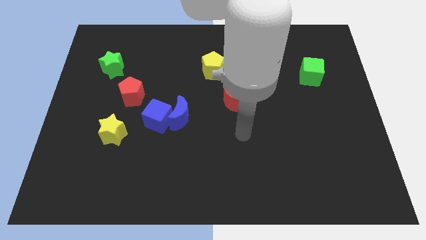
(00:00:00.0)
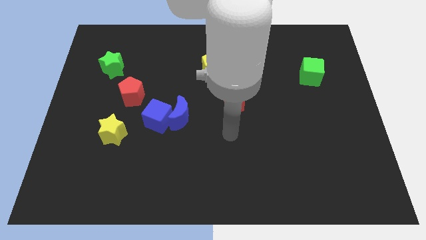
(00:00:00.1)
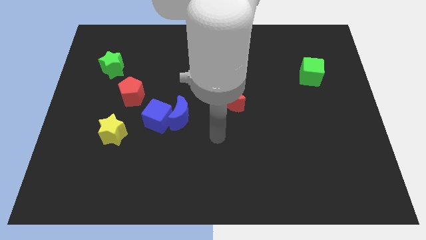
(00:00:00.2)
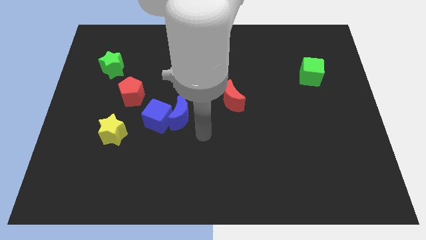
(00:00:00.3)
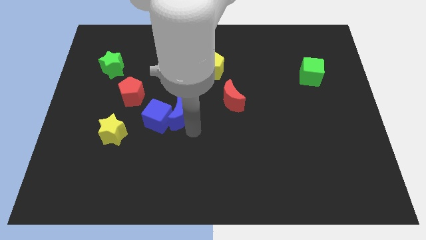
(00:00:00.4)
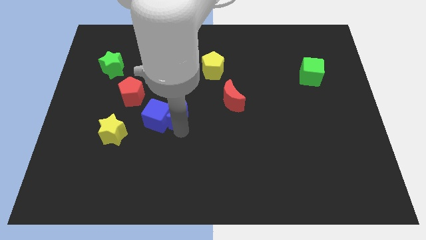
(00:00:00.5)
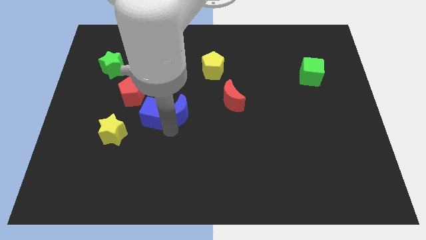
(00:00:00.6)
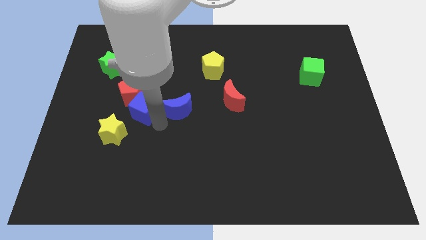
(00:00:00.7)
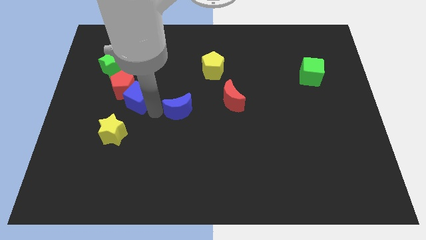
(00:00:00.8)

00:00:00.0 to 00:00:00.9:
separate the blue moon from the blue cube

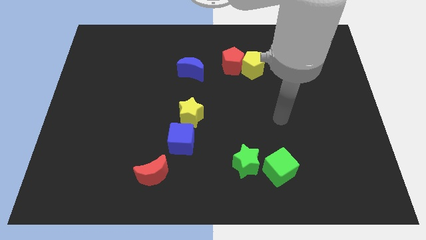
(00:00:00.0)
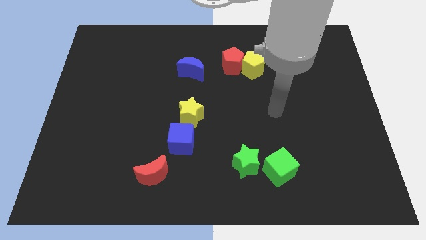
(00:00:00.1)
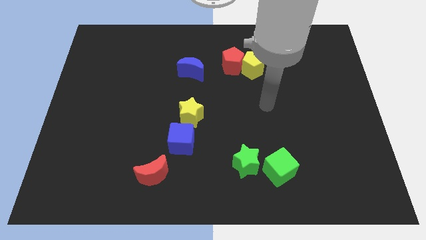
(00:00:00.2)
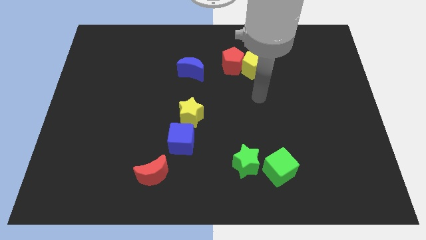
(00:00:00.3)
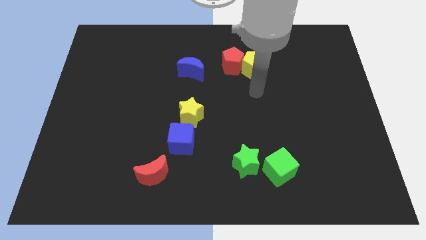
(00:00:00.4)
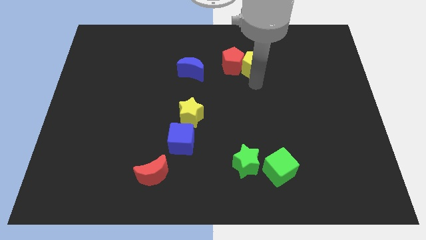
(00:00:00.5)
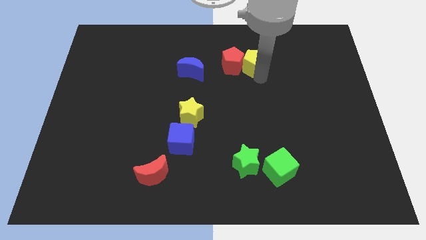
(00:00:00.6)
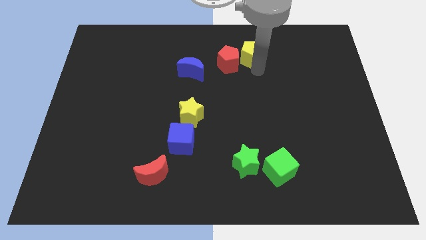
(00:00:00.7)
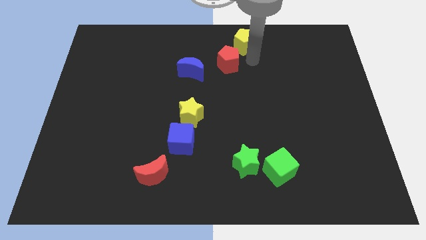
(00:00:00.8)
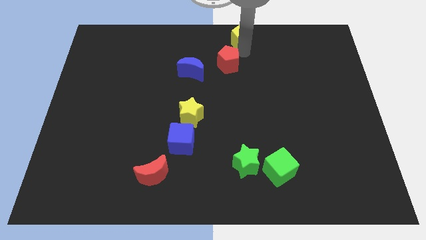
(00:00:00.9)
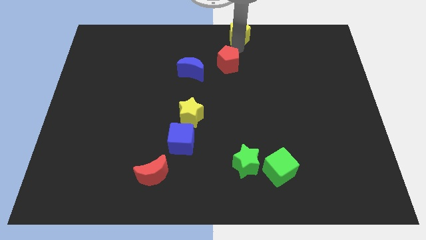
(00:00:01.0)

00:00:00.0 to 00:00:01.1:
separate the red pentagon from the yellow pentagon

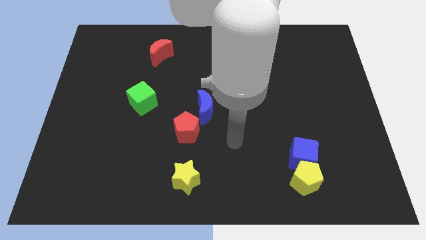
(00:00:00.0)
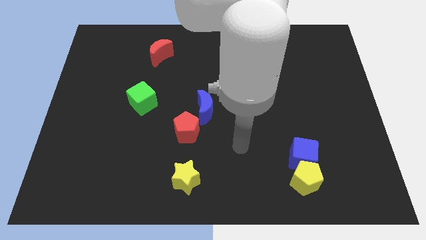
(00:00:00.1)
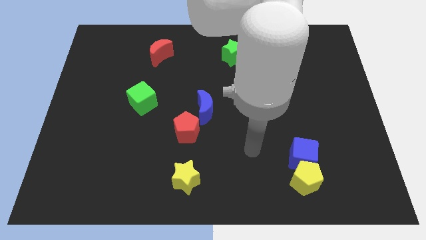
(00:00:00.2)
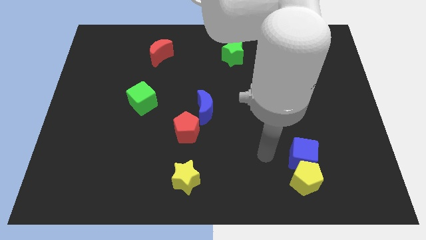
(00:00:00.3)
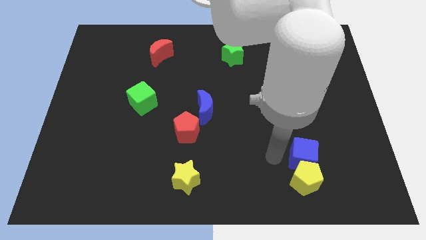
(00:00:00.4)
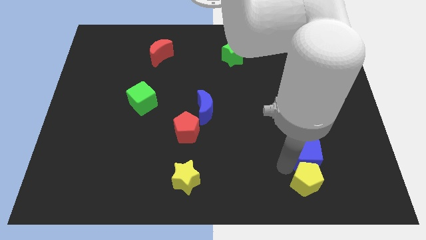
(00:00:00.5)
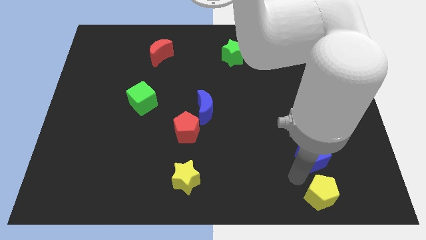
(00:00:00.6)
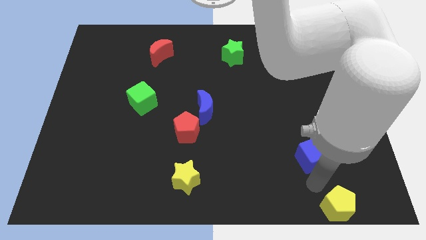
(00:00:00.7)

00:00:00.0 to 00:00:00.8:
move the blue cube away from the yellow pentagon

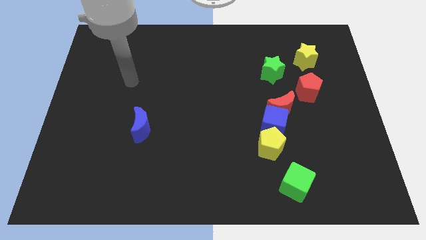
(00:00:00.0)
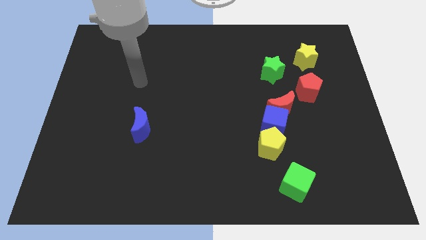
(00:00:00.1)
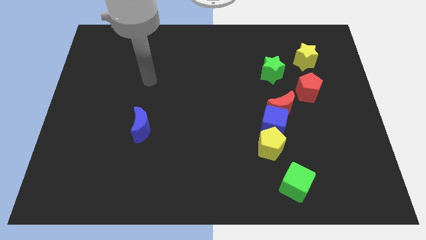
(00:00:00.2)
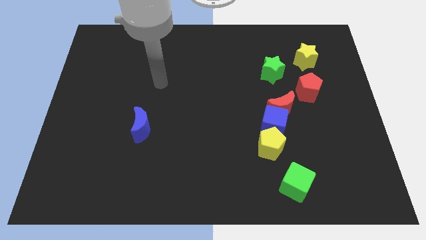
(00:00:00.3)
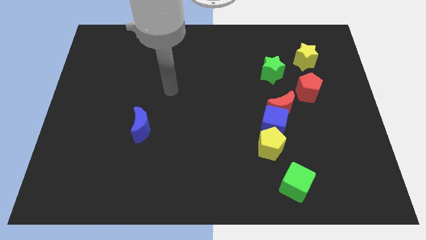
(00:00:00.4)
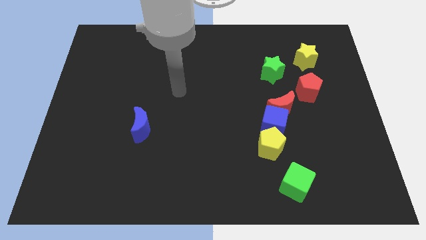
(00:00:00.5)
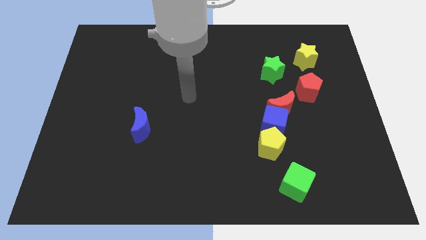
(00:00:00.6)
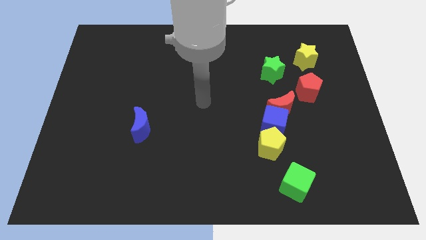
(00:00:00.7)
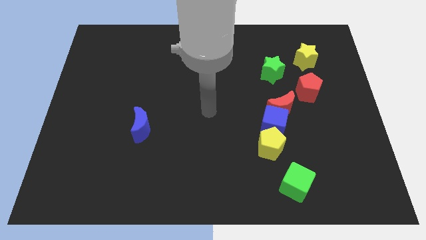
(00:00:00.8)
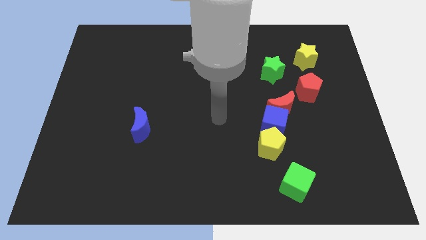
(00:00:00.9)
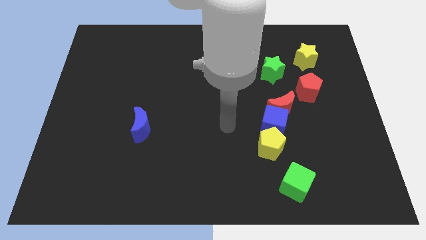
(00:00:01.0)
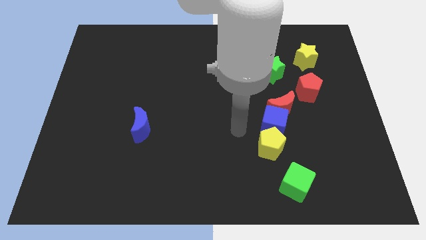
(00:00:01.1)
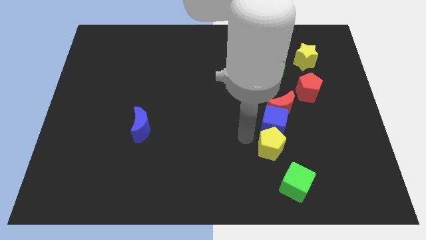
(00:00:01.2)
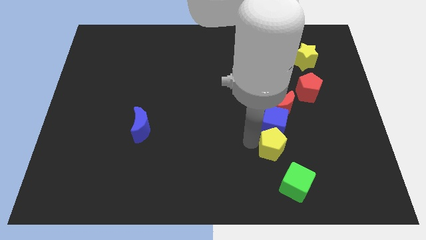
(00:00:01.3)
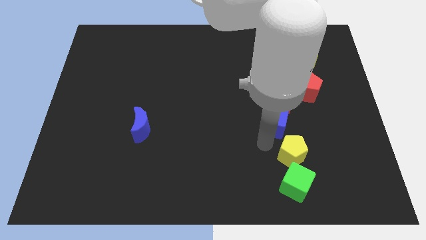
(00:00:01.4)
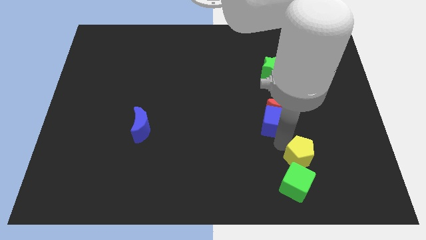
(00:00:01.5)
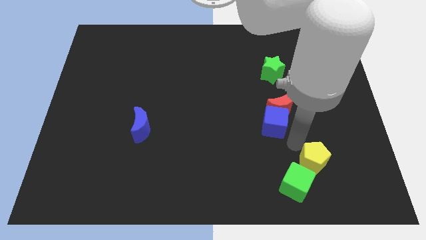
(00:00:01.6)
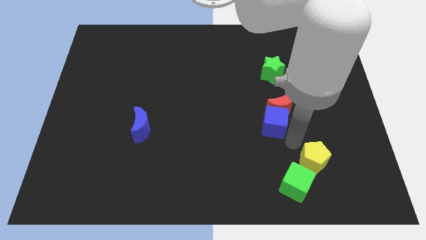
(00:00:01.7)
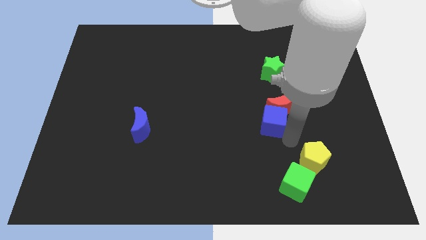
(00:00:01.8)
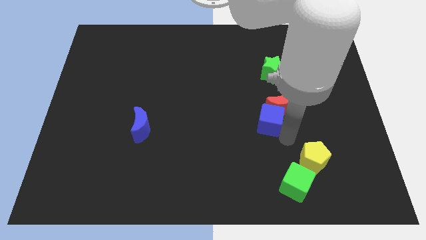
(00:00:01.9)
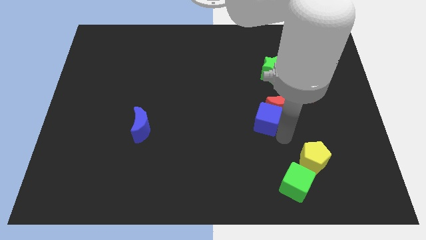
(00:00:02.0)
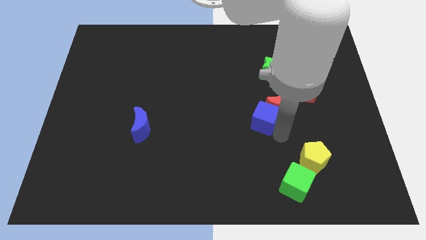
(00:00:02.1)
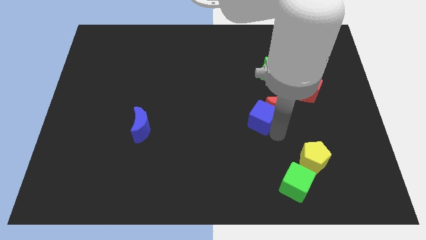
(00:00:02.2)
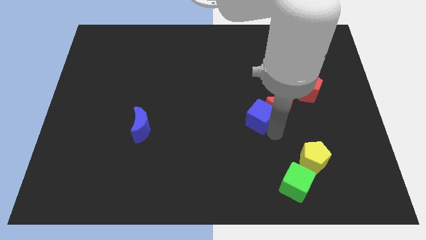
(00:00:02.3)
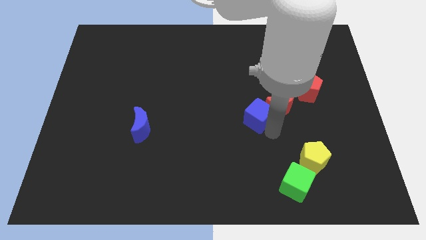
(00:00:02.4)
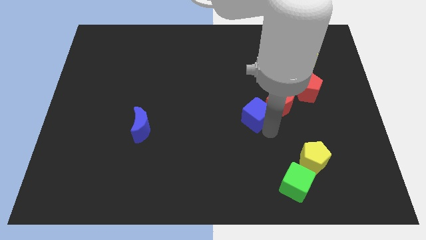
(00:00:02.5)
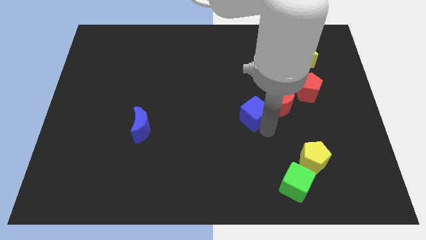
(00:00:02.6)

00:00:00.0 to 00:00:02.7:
move the blue cube away from the red moon and yellow pentagon

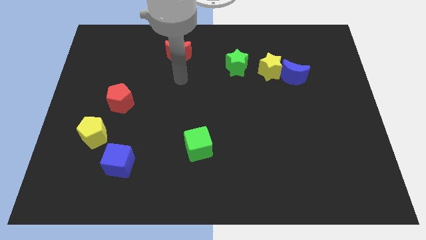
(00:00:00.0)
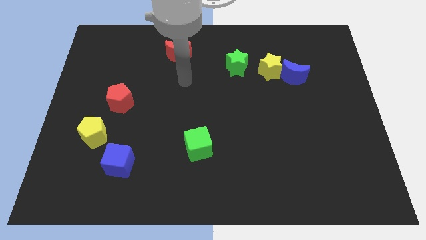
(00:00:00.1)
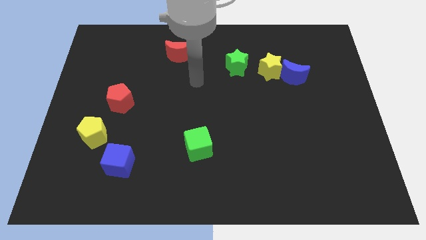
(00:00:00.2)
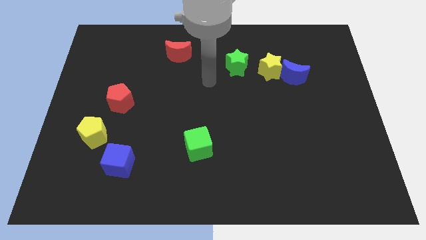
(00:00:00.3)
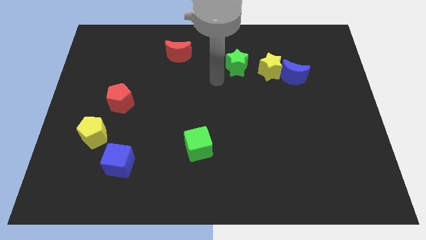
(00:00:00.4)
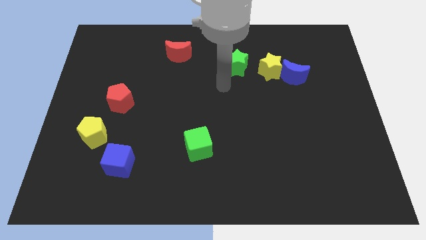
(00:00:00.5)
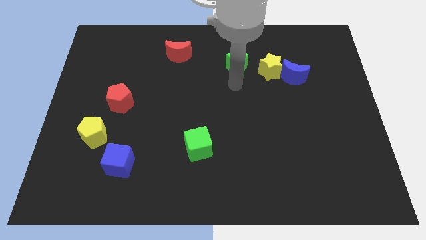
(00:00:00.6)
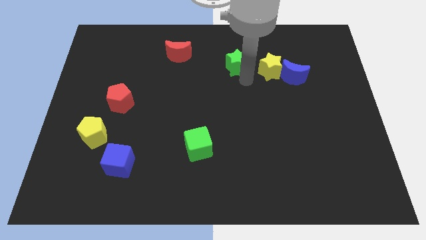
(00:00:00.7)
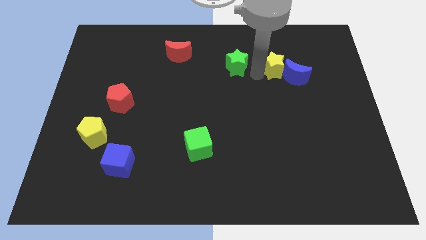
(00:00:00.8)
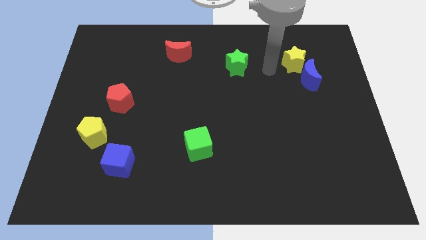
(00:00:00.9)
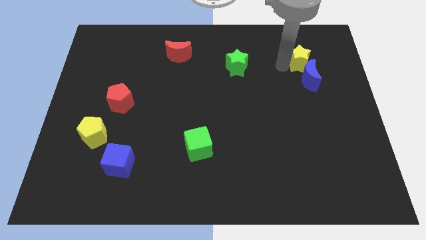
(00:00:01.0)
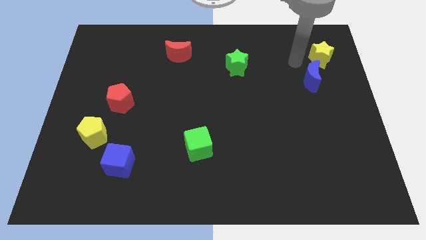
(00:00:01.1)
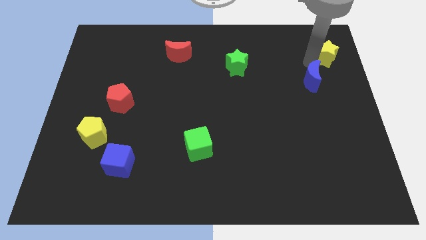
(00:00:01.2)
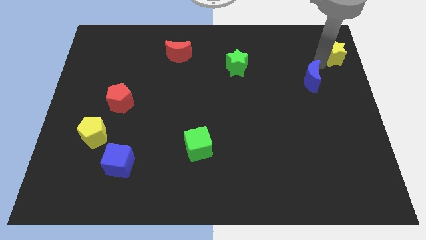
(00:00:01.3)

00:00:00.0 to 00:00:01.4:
separate the blue moon from the yellow star

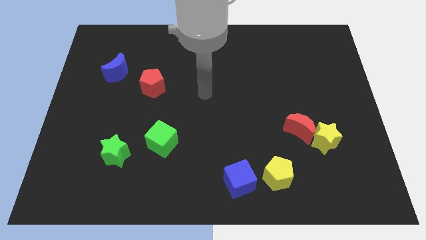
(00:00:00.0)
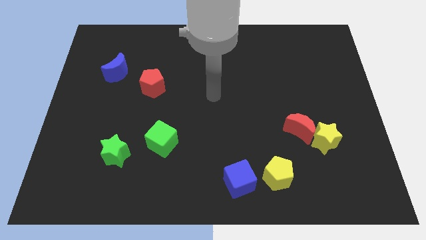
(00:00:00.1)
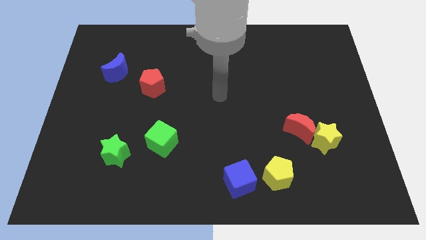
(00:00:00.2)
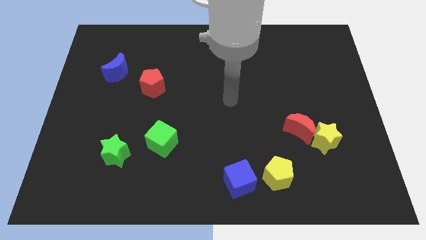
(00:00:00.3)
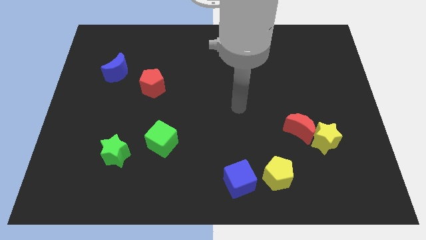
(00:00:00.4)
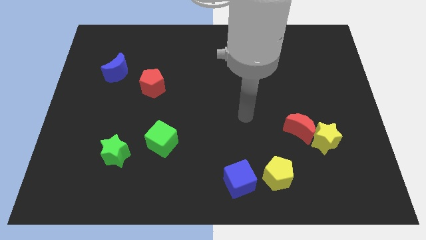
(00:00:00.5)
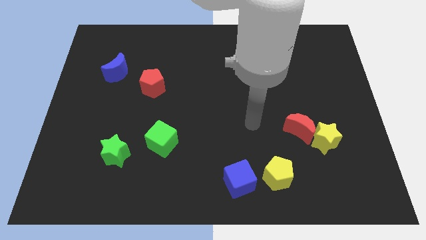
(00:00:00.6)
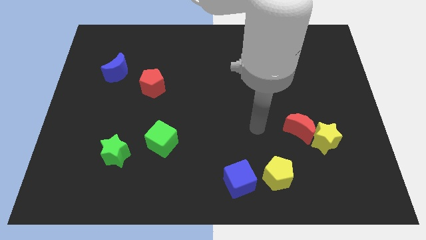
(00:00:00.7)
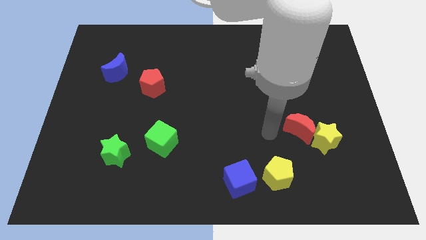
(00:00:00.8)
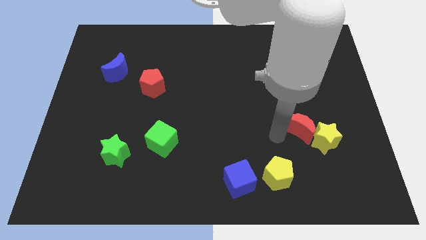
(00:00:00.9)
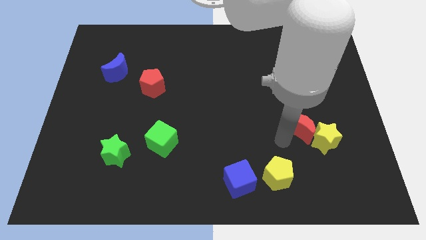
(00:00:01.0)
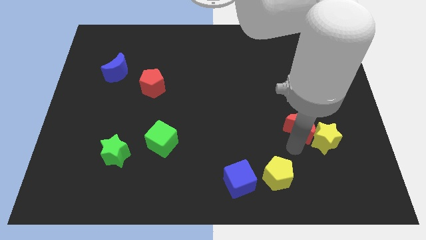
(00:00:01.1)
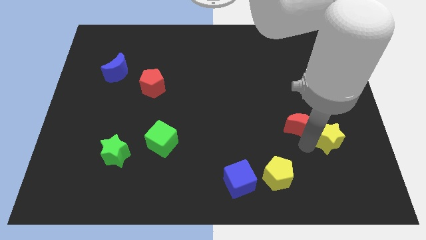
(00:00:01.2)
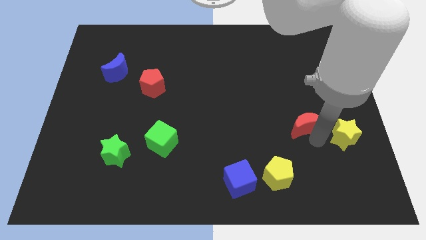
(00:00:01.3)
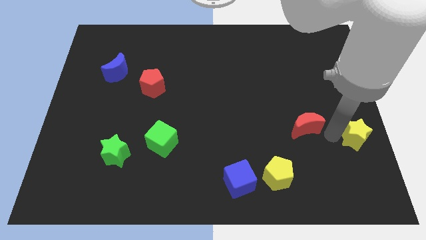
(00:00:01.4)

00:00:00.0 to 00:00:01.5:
separate the red moon from the yellow star

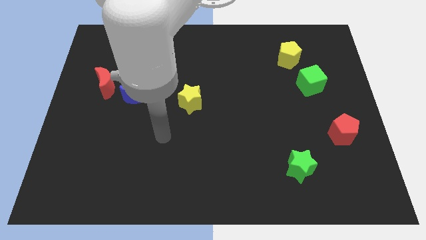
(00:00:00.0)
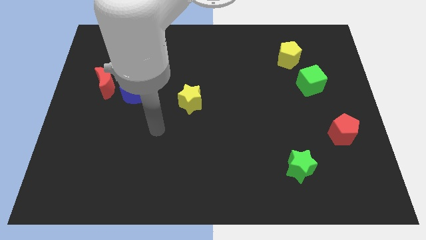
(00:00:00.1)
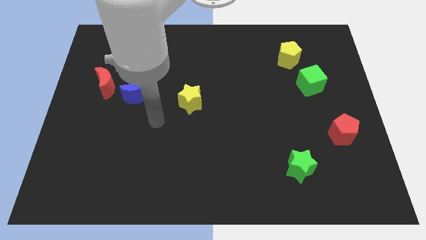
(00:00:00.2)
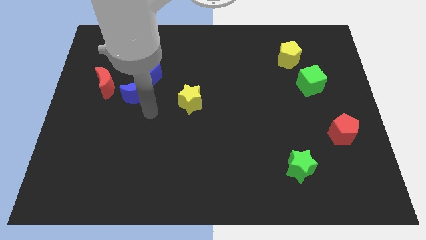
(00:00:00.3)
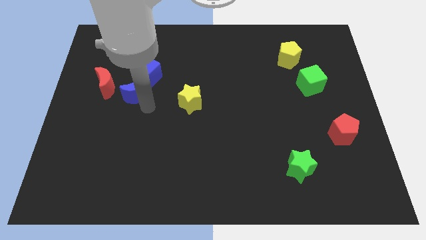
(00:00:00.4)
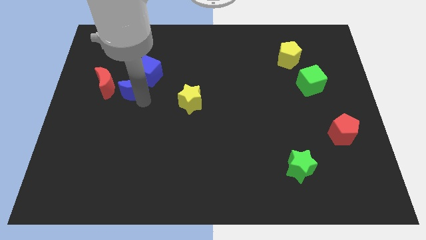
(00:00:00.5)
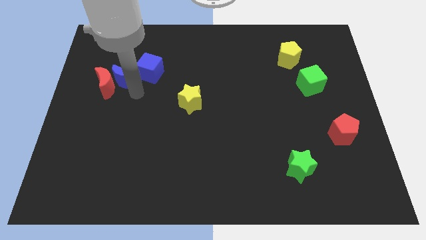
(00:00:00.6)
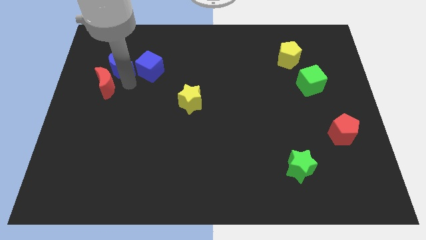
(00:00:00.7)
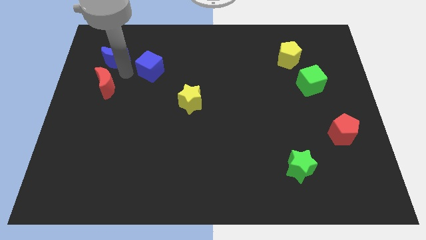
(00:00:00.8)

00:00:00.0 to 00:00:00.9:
separate the blue cube from the blue moon
